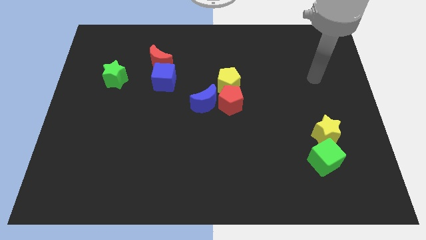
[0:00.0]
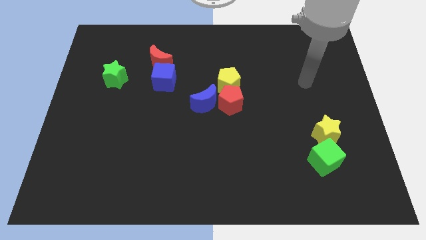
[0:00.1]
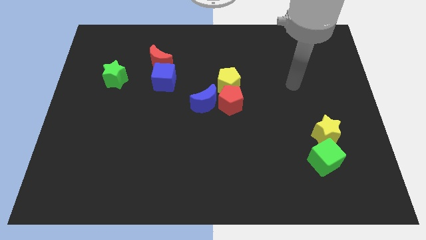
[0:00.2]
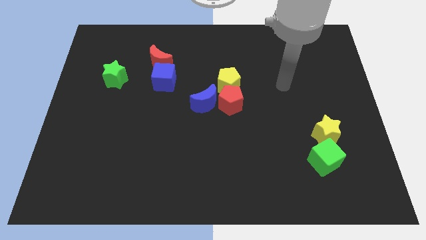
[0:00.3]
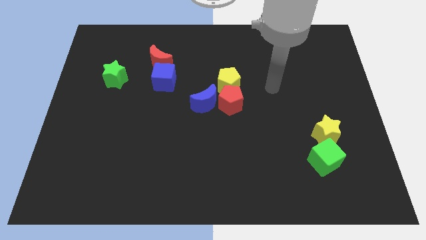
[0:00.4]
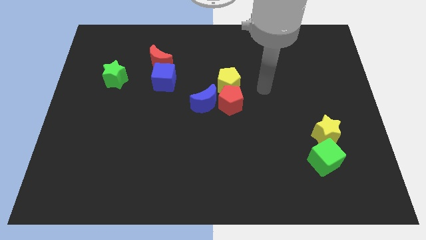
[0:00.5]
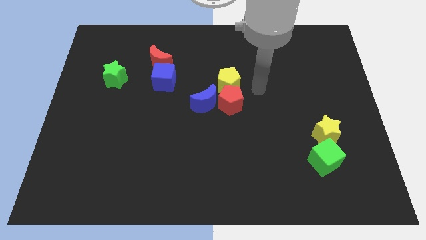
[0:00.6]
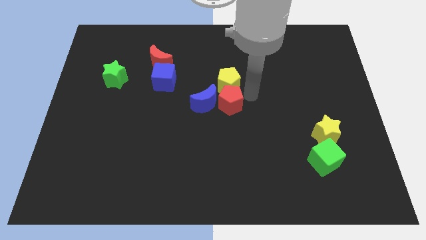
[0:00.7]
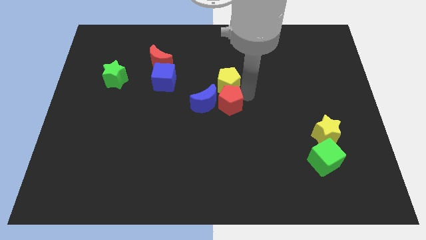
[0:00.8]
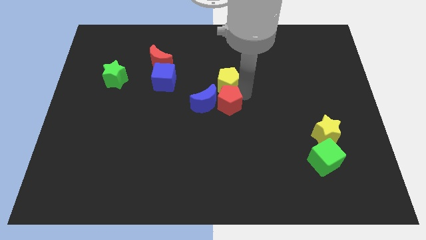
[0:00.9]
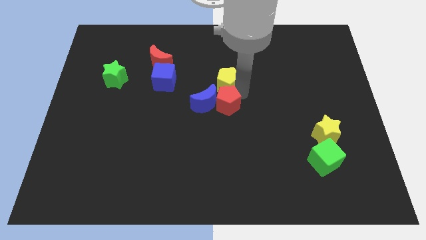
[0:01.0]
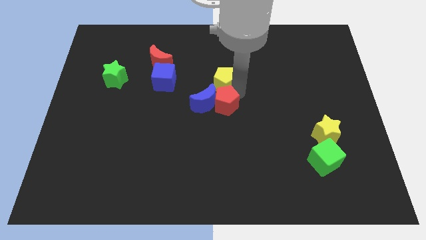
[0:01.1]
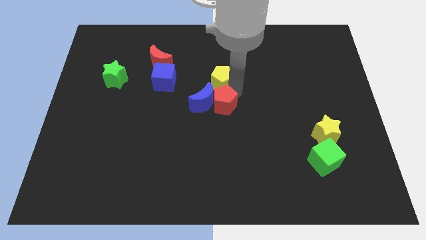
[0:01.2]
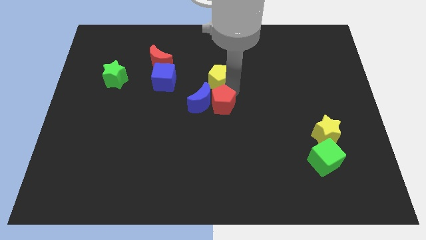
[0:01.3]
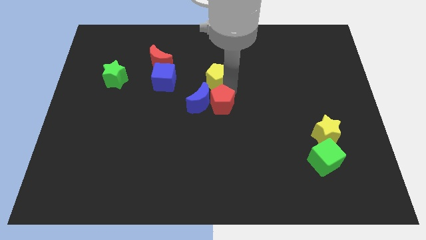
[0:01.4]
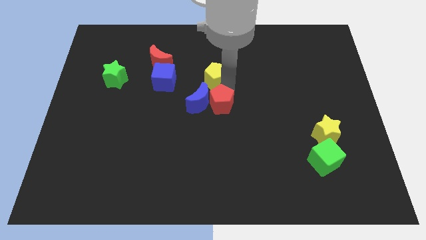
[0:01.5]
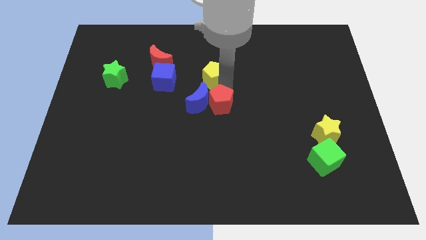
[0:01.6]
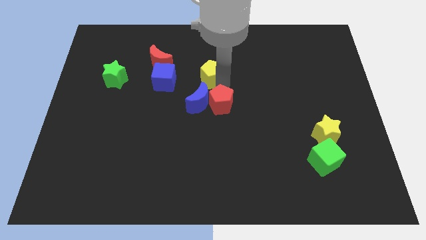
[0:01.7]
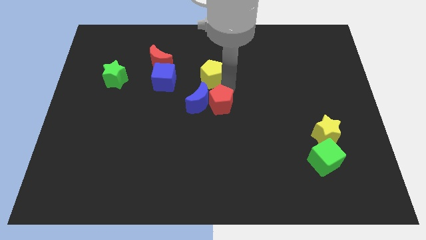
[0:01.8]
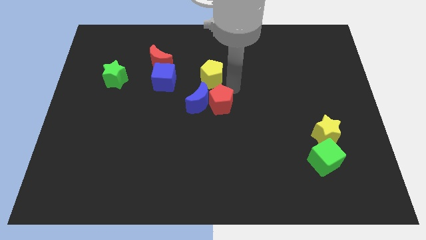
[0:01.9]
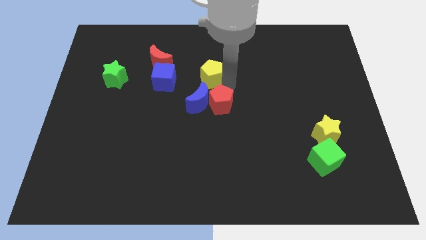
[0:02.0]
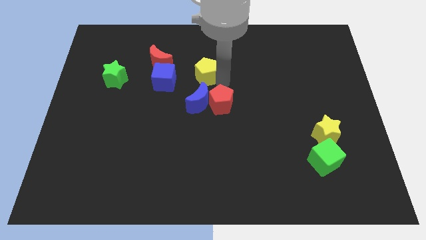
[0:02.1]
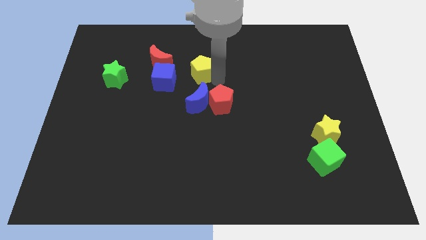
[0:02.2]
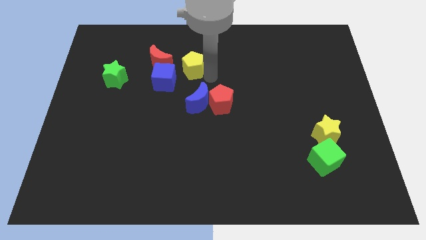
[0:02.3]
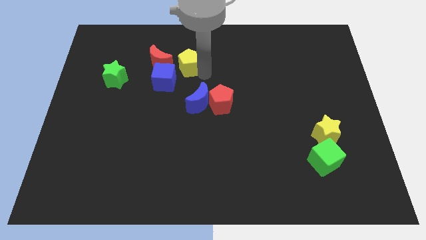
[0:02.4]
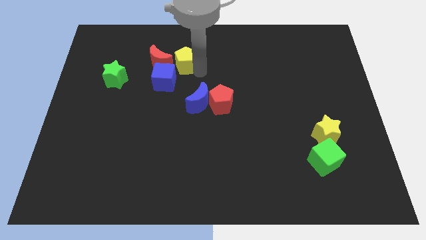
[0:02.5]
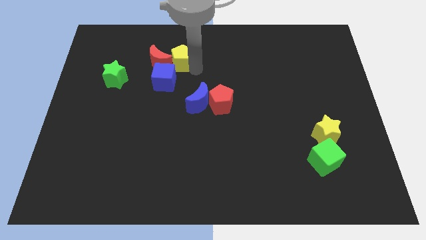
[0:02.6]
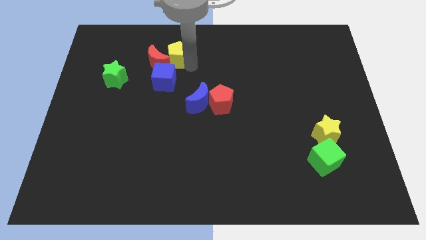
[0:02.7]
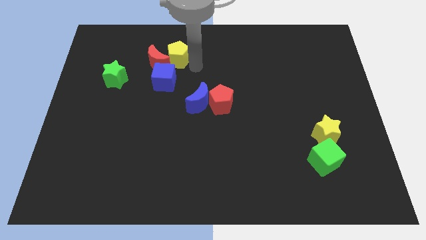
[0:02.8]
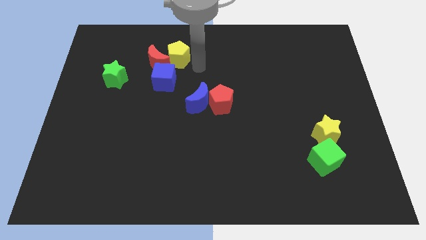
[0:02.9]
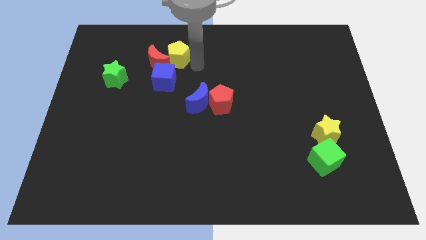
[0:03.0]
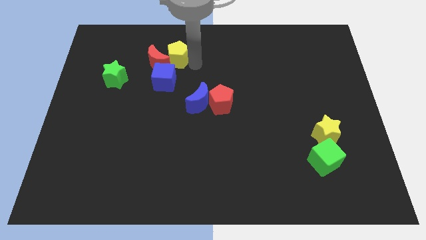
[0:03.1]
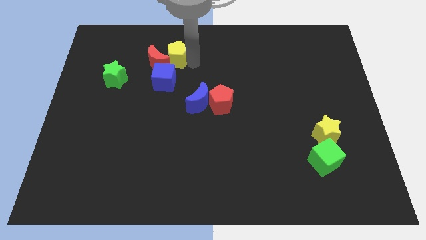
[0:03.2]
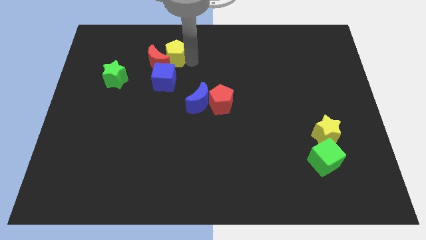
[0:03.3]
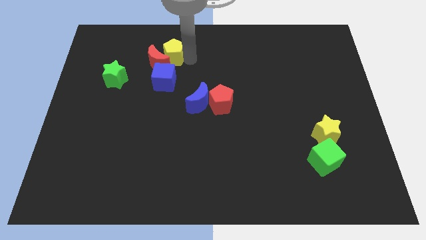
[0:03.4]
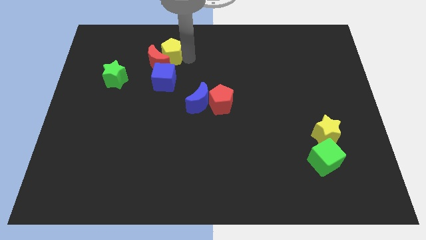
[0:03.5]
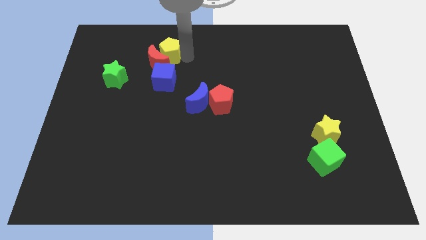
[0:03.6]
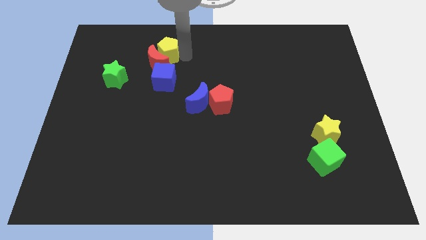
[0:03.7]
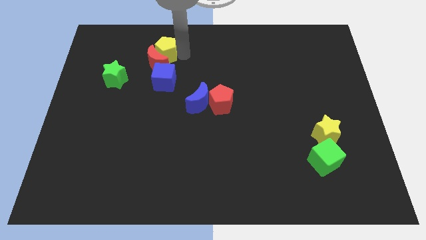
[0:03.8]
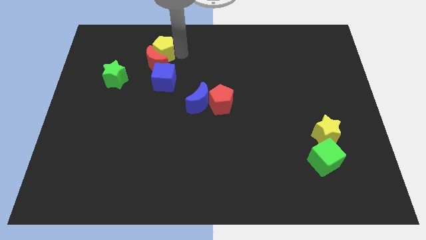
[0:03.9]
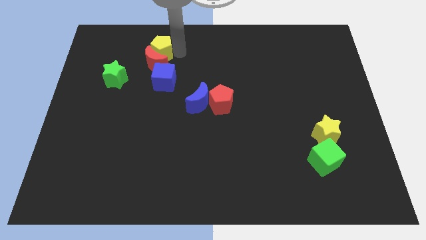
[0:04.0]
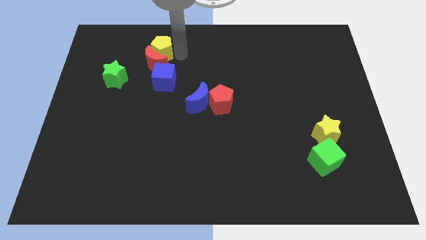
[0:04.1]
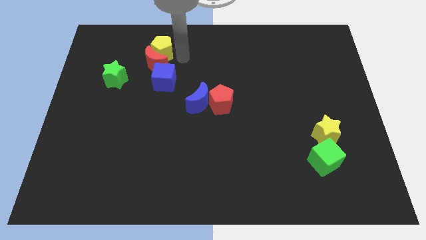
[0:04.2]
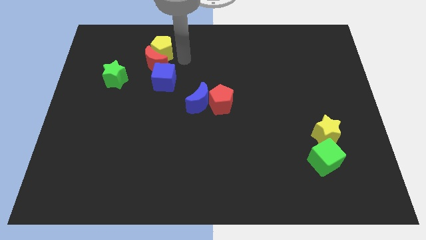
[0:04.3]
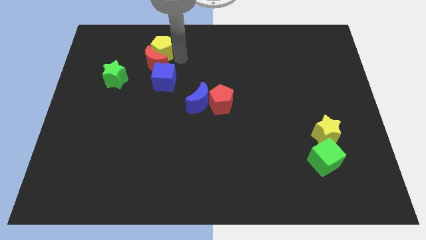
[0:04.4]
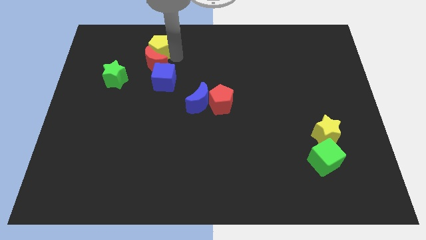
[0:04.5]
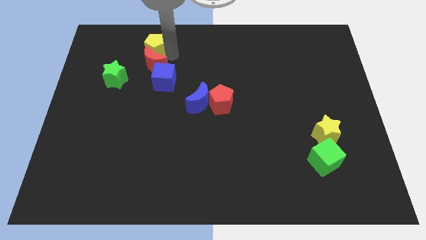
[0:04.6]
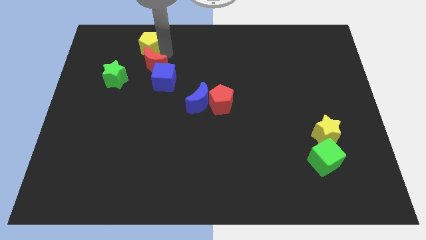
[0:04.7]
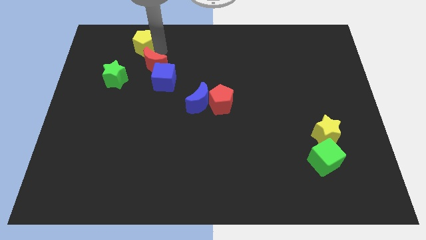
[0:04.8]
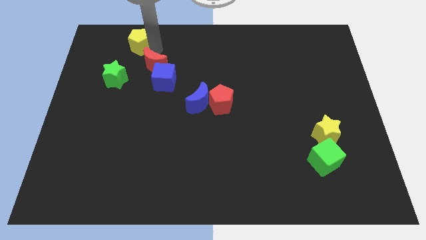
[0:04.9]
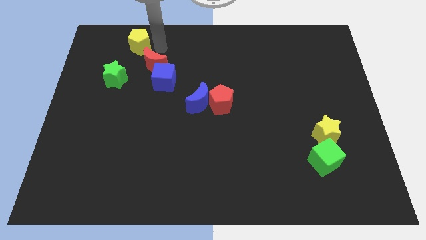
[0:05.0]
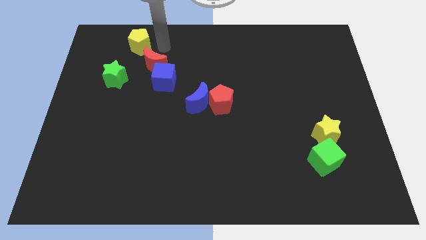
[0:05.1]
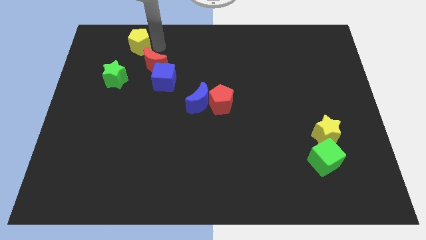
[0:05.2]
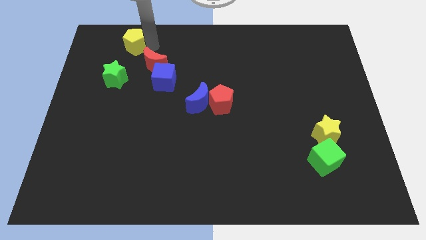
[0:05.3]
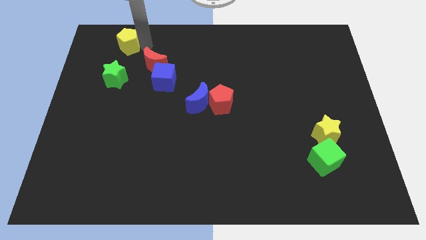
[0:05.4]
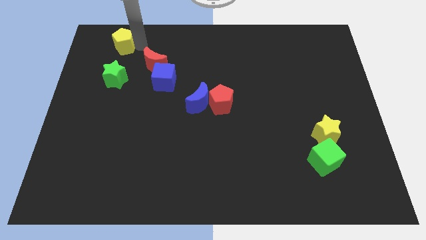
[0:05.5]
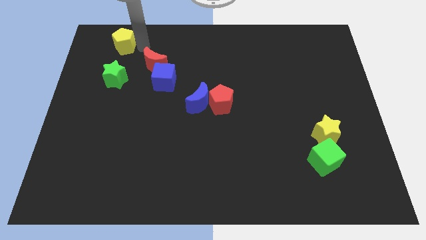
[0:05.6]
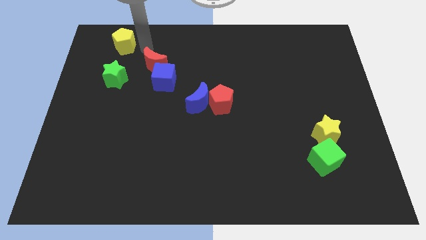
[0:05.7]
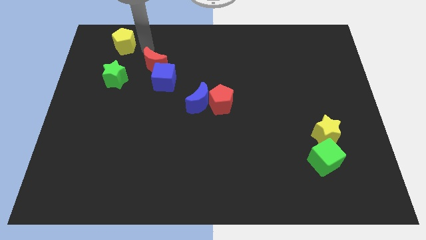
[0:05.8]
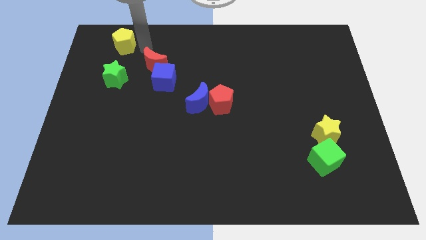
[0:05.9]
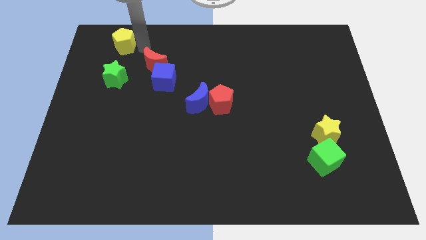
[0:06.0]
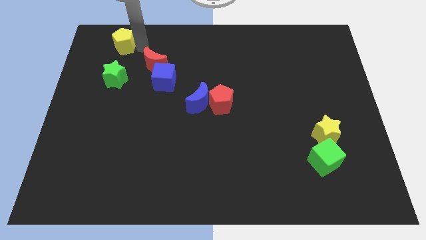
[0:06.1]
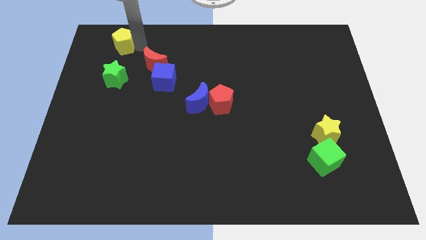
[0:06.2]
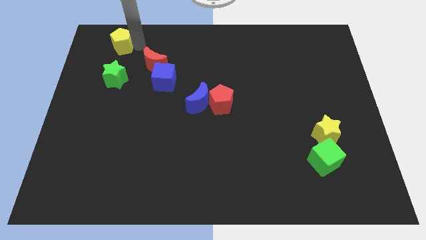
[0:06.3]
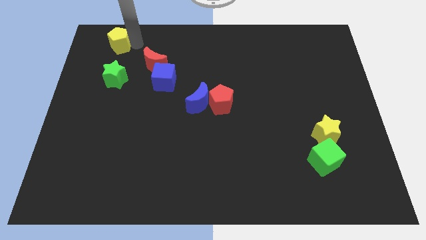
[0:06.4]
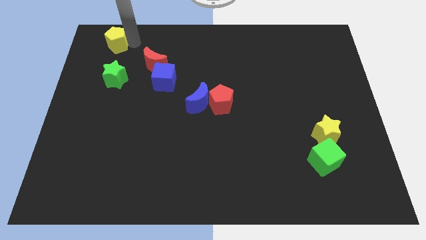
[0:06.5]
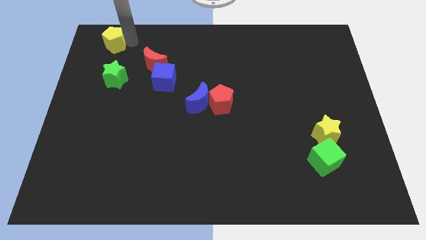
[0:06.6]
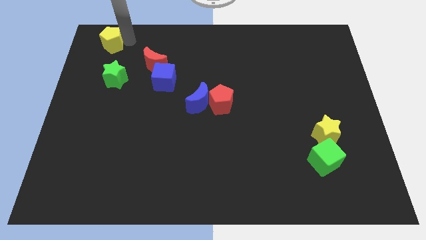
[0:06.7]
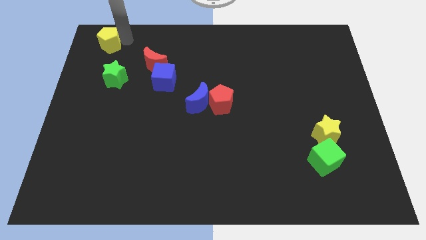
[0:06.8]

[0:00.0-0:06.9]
push the yellow pentagon to the top left

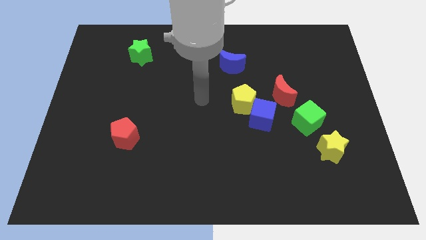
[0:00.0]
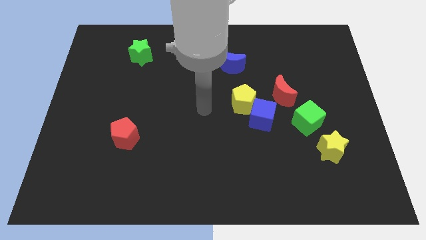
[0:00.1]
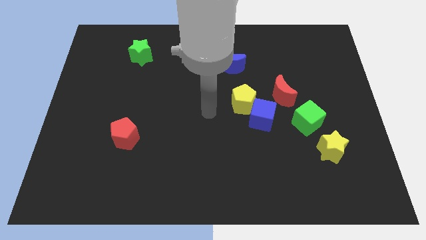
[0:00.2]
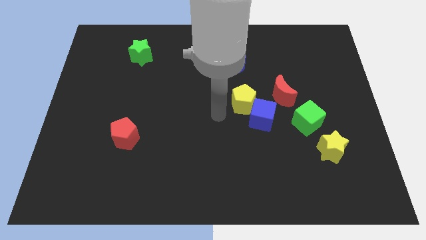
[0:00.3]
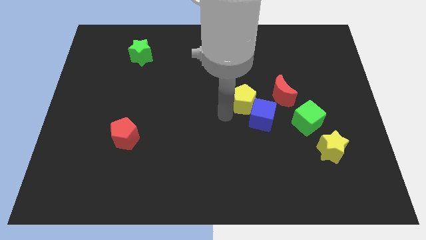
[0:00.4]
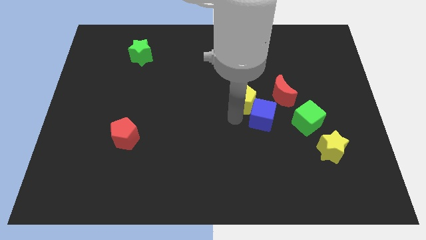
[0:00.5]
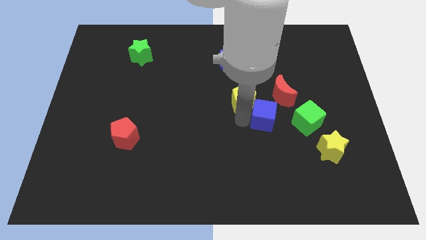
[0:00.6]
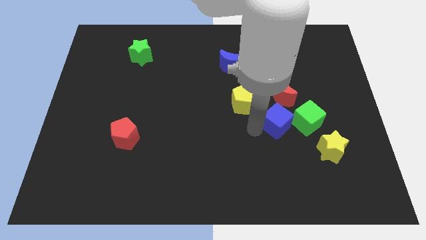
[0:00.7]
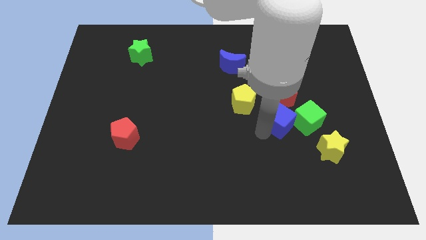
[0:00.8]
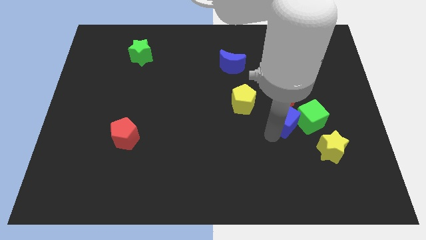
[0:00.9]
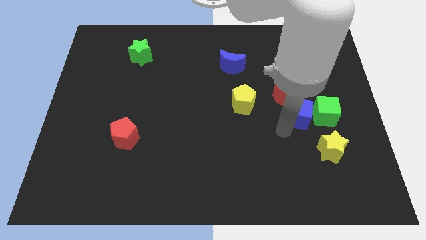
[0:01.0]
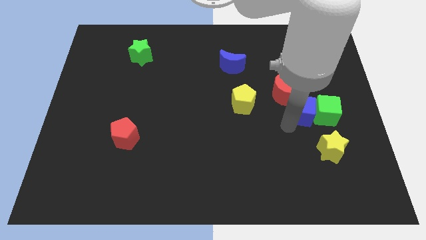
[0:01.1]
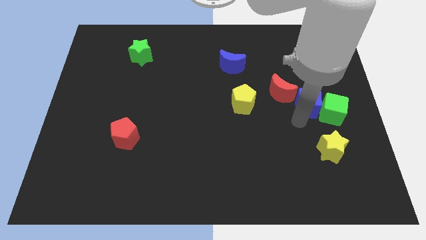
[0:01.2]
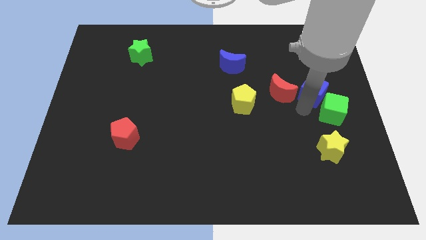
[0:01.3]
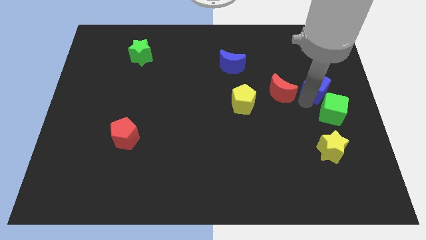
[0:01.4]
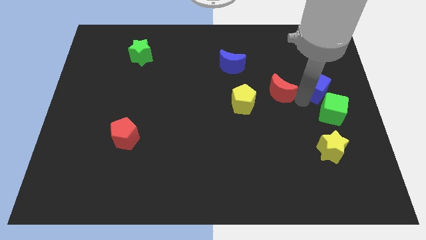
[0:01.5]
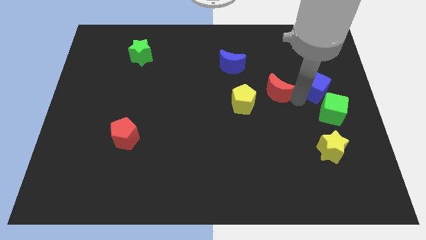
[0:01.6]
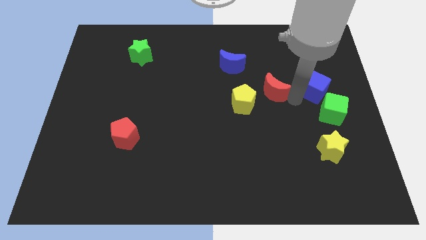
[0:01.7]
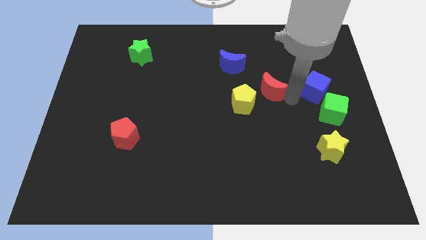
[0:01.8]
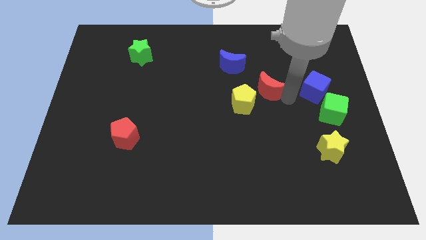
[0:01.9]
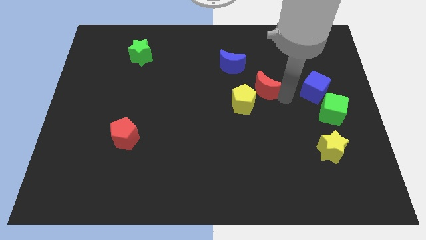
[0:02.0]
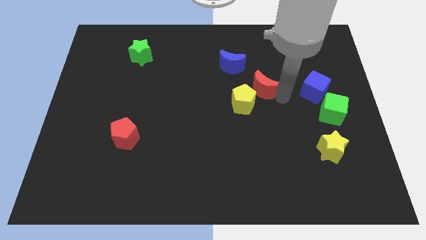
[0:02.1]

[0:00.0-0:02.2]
move the red moon to the middle of the board
